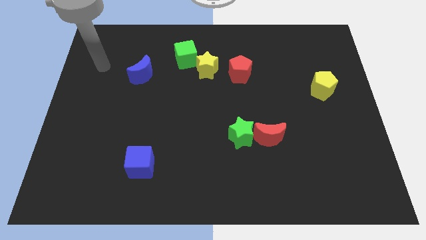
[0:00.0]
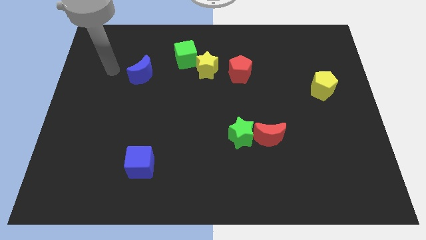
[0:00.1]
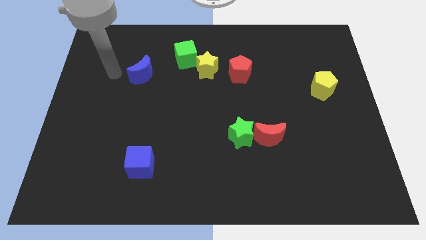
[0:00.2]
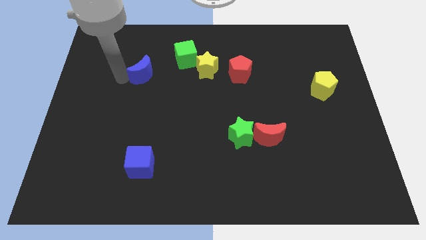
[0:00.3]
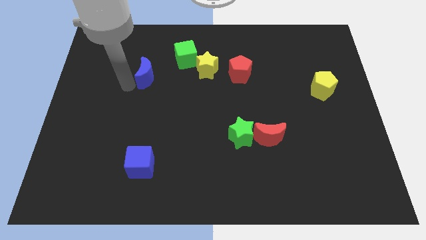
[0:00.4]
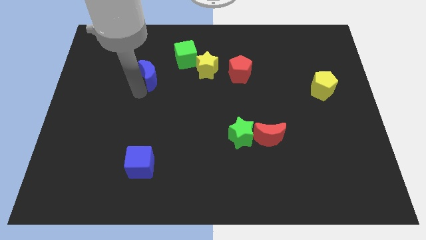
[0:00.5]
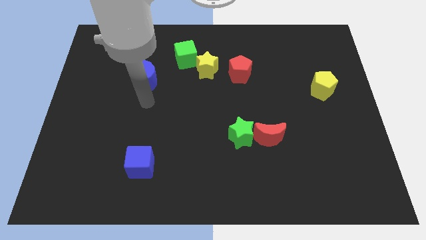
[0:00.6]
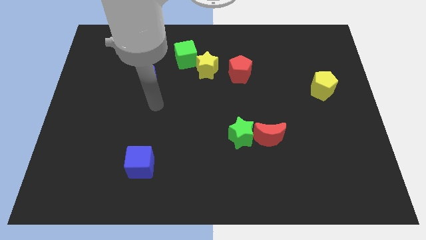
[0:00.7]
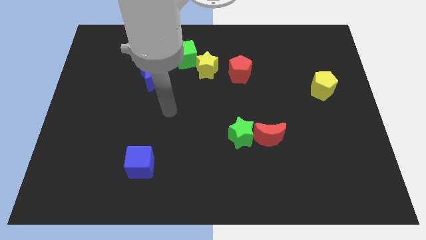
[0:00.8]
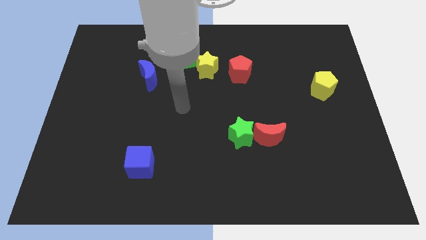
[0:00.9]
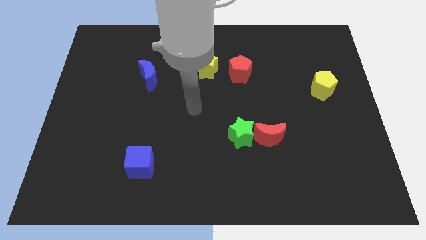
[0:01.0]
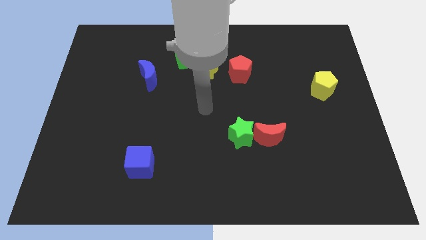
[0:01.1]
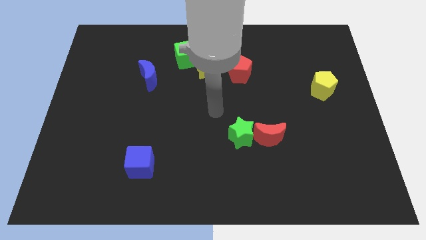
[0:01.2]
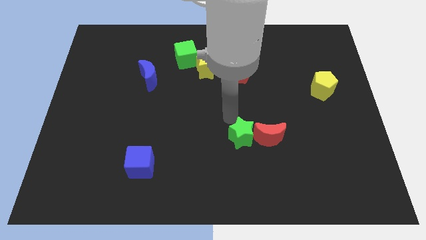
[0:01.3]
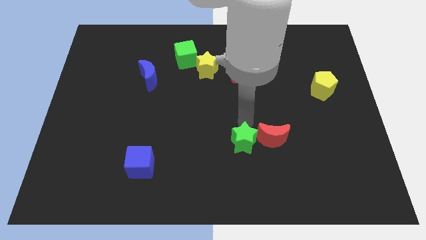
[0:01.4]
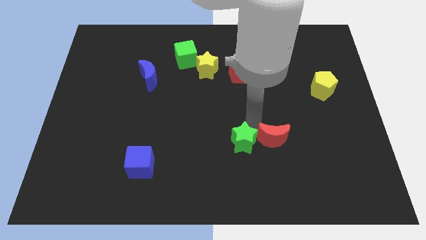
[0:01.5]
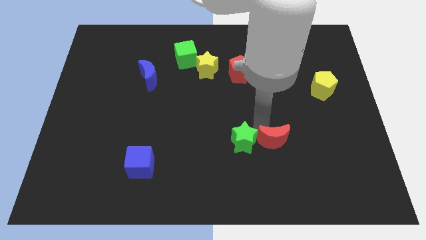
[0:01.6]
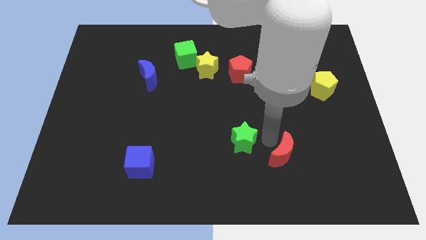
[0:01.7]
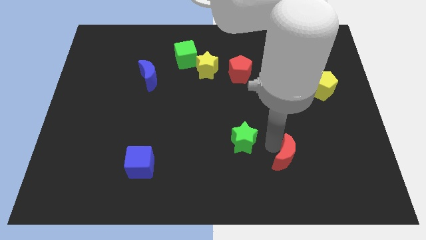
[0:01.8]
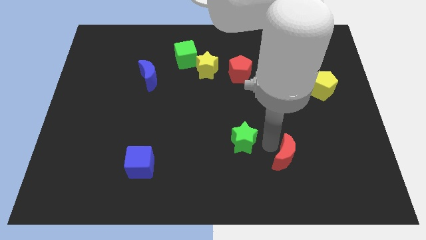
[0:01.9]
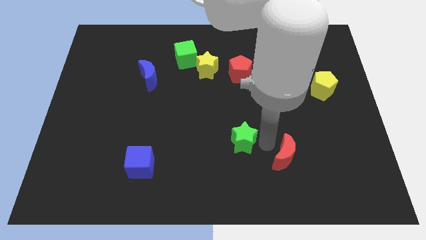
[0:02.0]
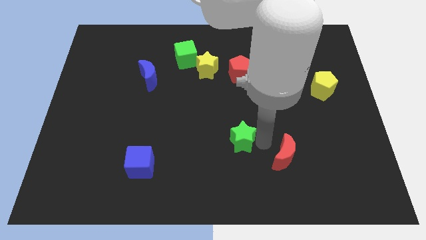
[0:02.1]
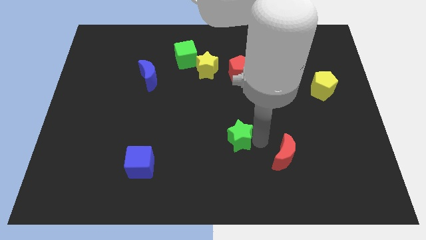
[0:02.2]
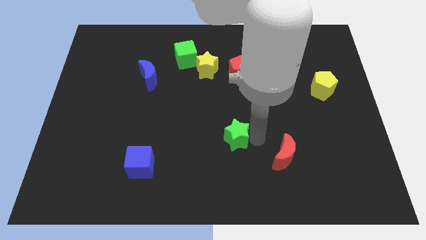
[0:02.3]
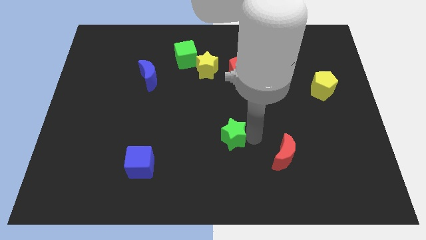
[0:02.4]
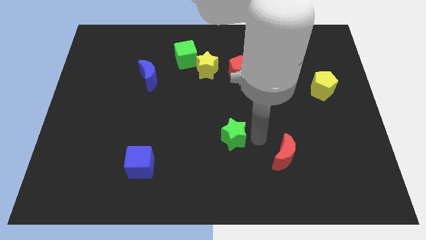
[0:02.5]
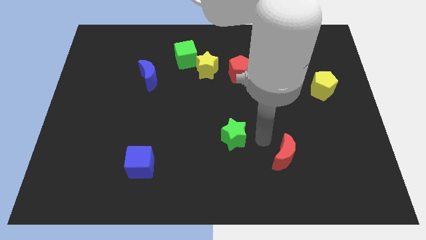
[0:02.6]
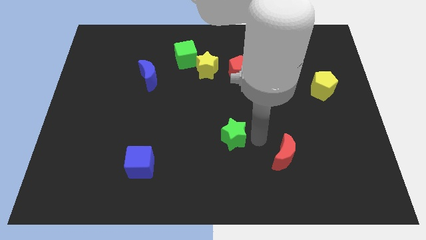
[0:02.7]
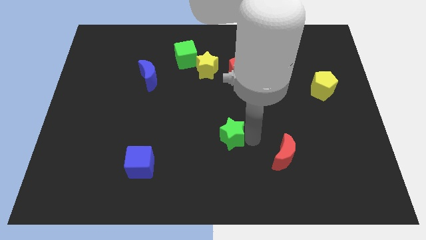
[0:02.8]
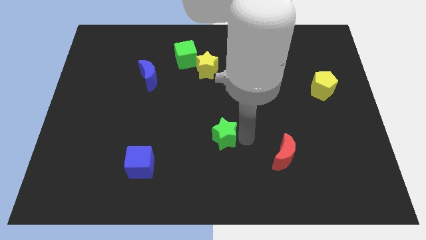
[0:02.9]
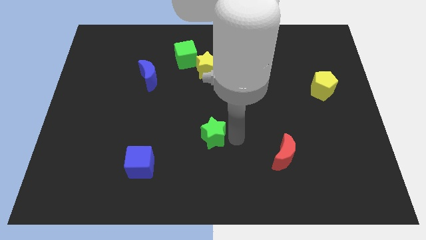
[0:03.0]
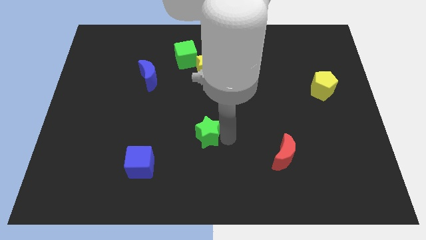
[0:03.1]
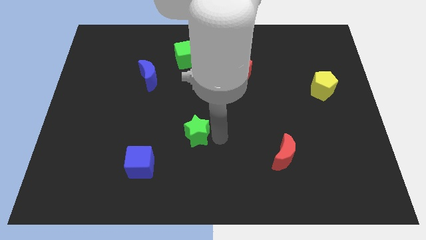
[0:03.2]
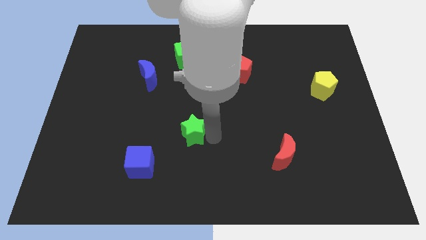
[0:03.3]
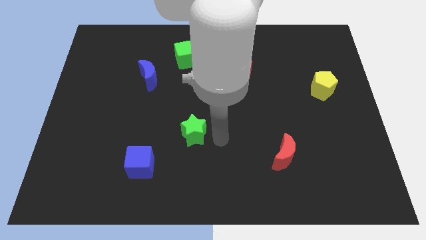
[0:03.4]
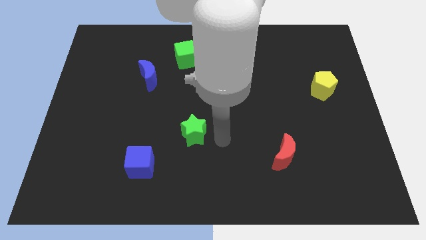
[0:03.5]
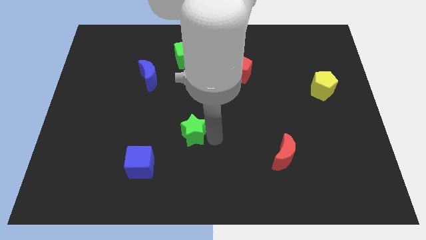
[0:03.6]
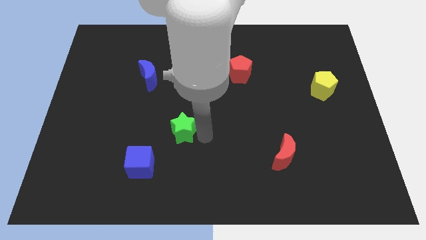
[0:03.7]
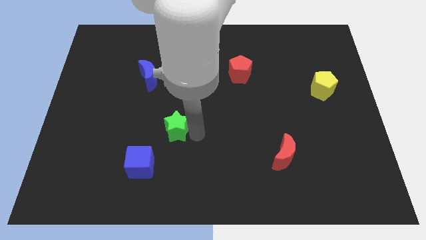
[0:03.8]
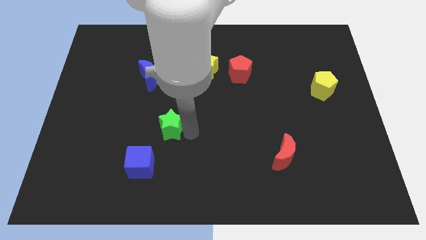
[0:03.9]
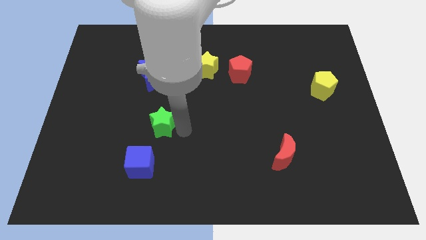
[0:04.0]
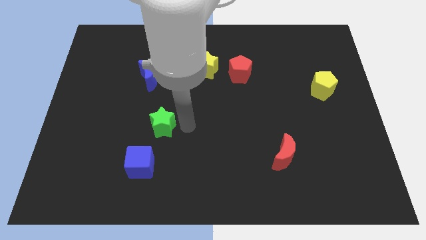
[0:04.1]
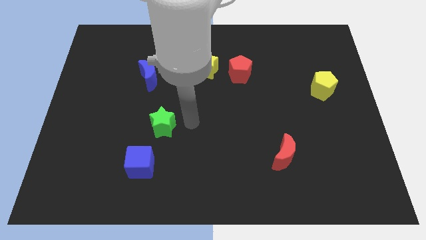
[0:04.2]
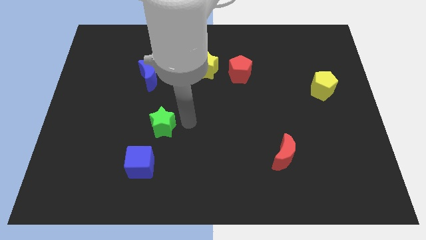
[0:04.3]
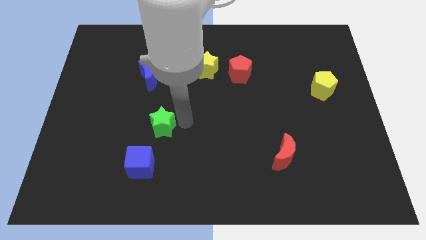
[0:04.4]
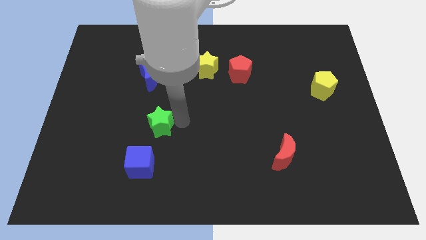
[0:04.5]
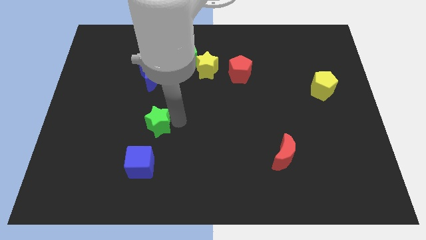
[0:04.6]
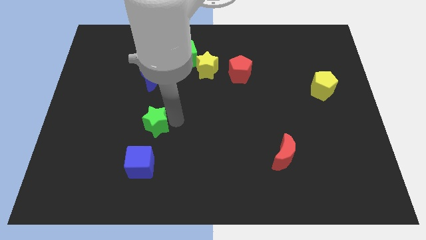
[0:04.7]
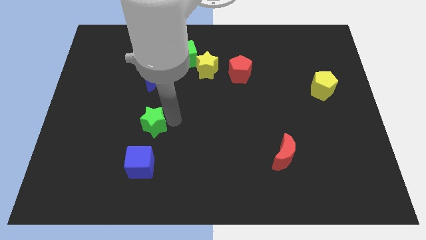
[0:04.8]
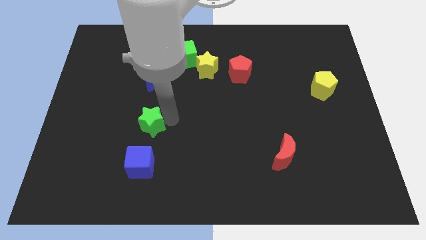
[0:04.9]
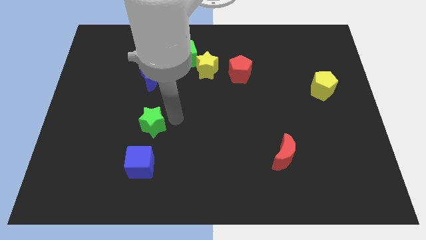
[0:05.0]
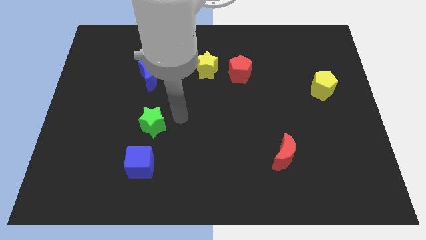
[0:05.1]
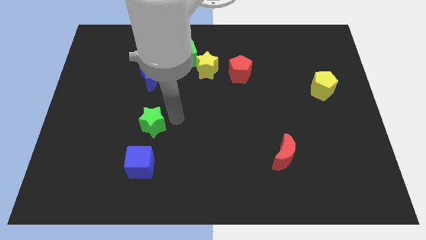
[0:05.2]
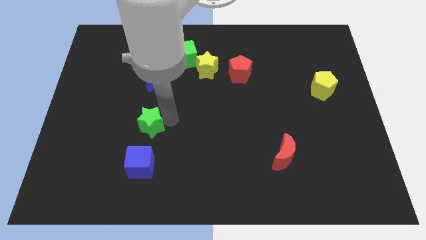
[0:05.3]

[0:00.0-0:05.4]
push the green star left

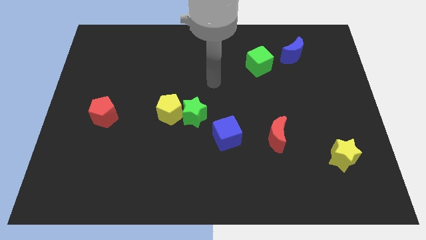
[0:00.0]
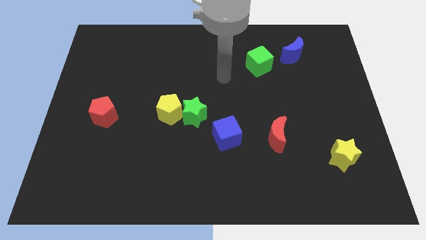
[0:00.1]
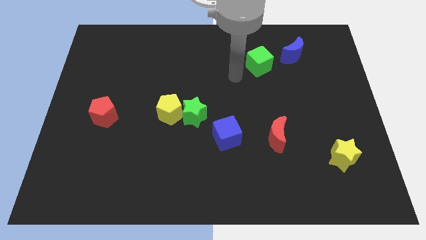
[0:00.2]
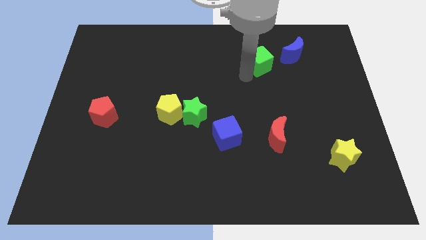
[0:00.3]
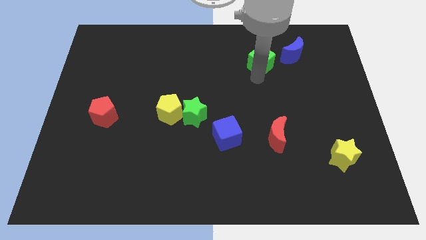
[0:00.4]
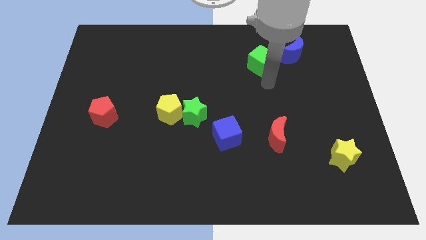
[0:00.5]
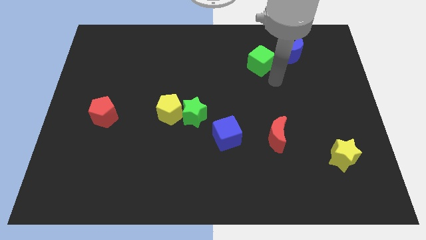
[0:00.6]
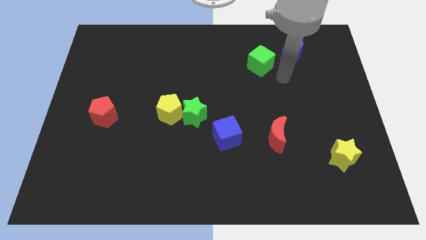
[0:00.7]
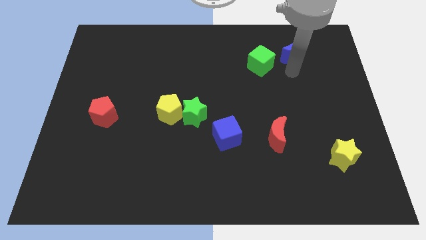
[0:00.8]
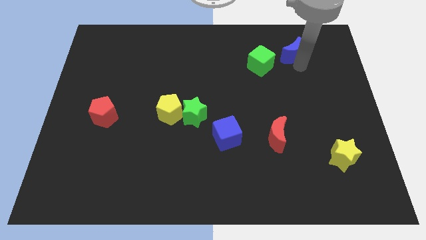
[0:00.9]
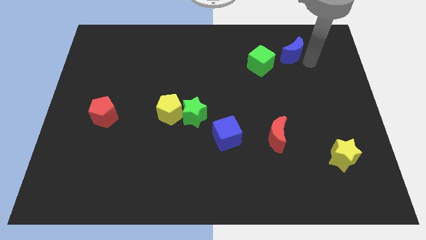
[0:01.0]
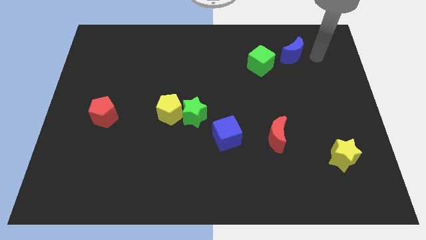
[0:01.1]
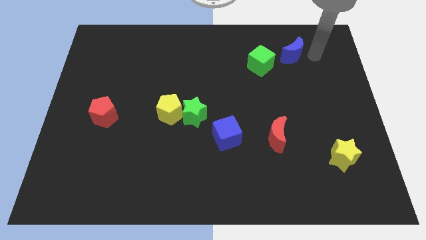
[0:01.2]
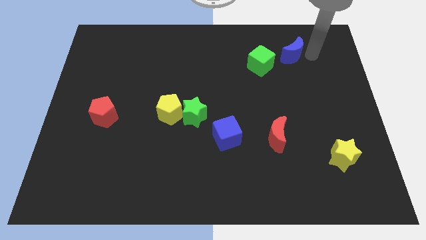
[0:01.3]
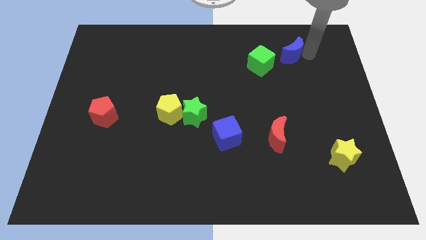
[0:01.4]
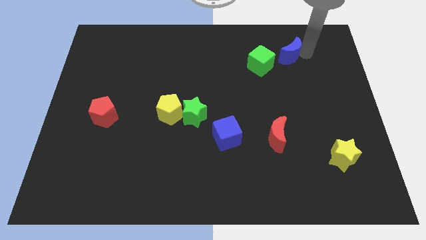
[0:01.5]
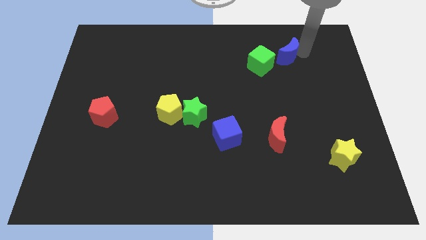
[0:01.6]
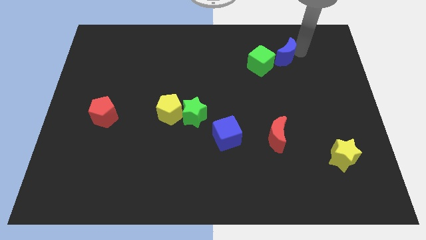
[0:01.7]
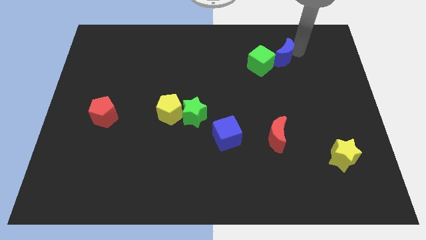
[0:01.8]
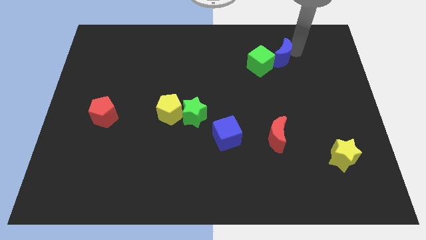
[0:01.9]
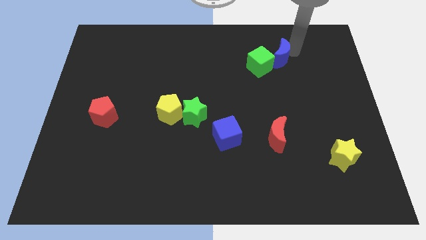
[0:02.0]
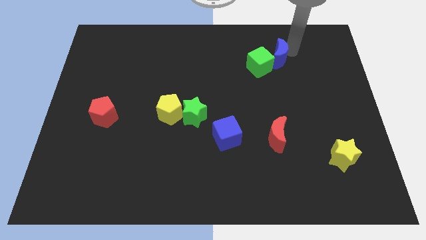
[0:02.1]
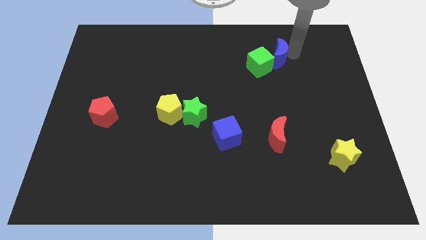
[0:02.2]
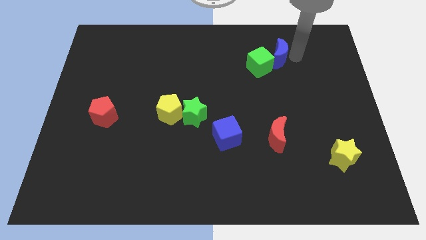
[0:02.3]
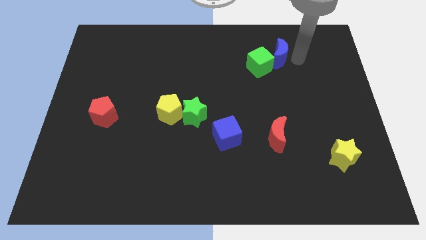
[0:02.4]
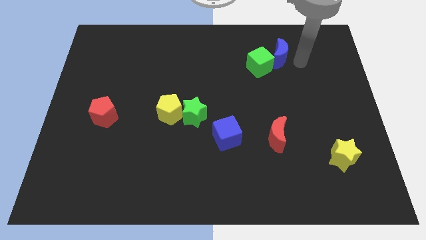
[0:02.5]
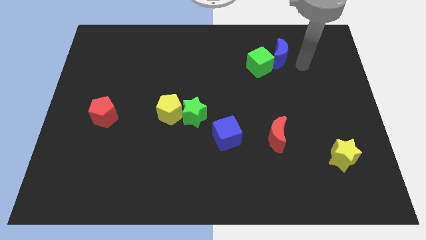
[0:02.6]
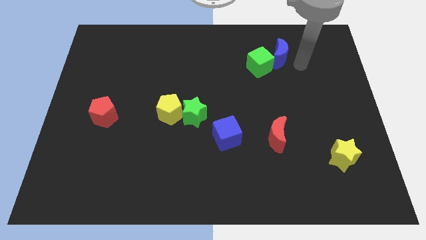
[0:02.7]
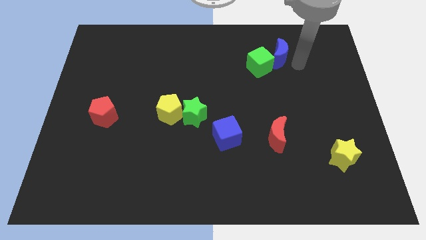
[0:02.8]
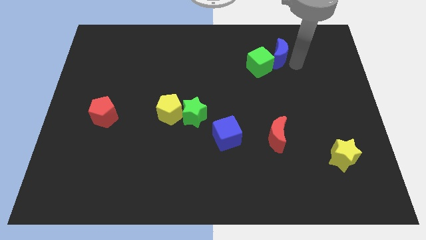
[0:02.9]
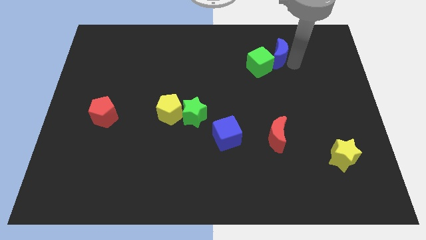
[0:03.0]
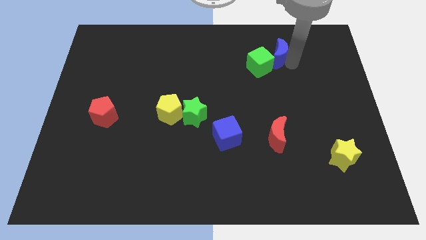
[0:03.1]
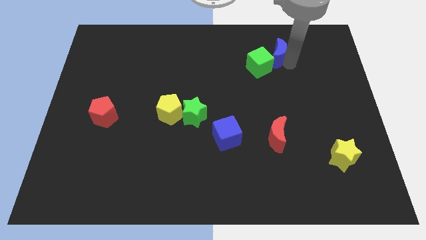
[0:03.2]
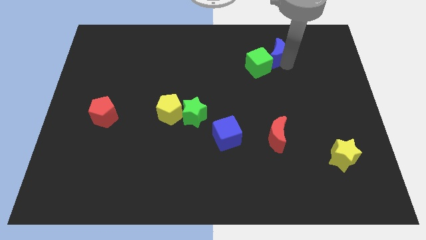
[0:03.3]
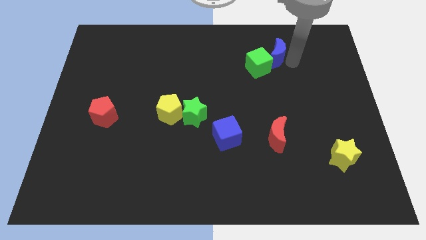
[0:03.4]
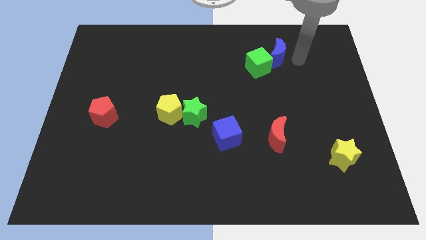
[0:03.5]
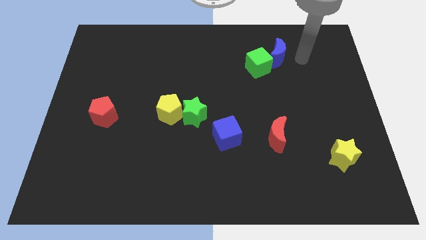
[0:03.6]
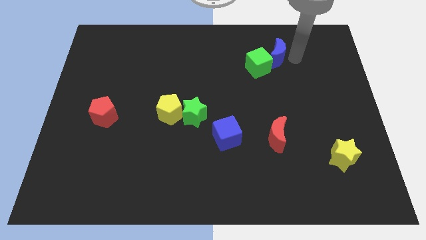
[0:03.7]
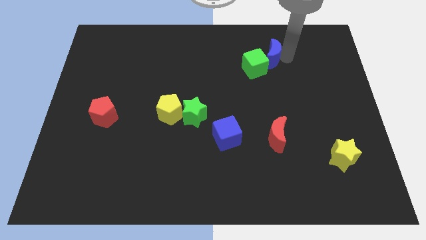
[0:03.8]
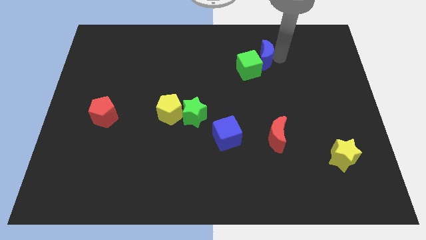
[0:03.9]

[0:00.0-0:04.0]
slide the blue moon slightly to the left
